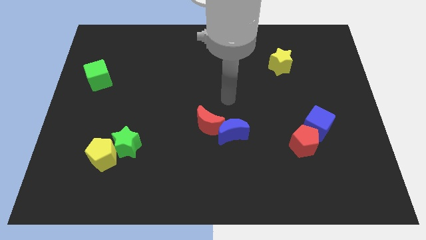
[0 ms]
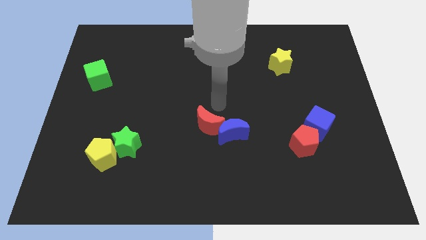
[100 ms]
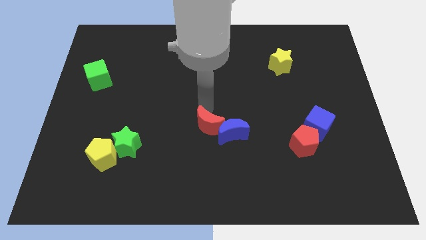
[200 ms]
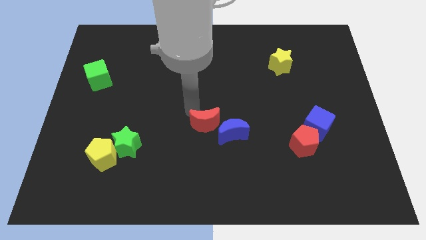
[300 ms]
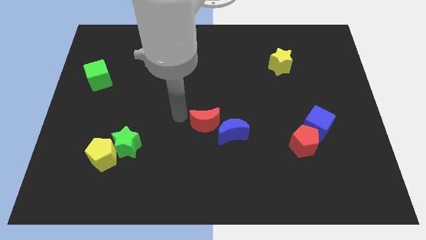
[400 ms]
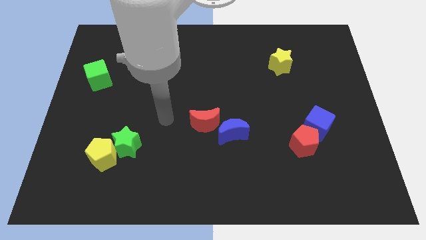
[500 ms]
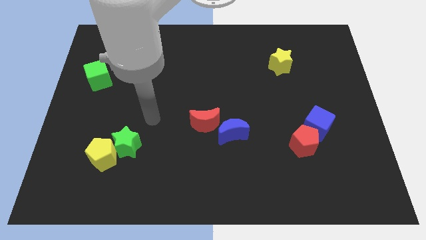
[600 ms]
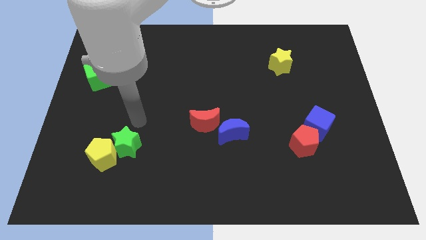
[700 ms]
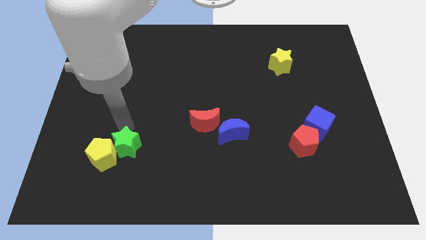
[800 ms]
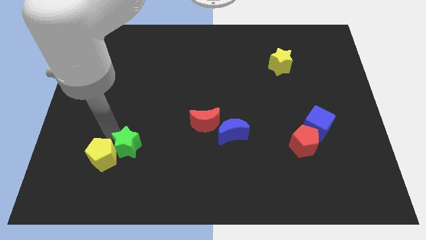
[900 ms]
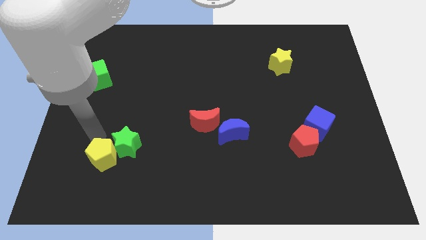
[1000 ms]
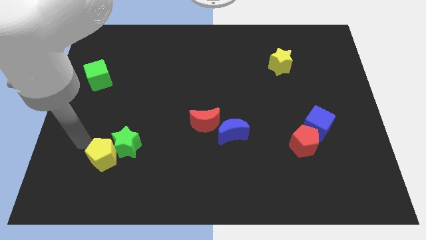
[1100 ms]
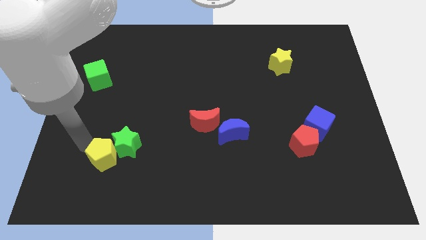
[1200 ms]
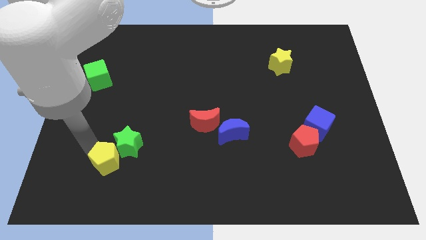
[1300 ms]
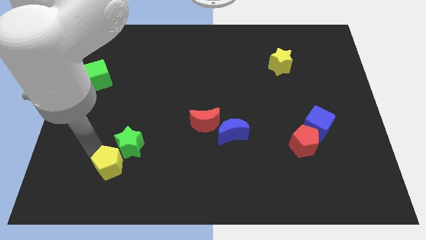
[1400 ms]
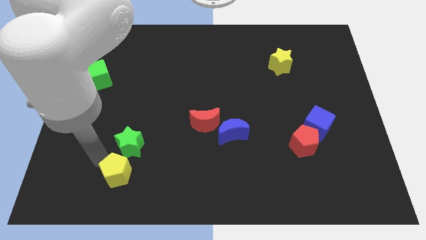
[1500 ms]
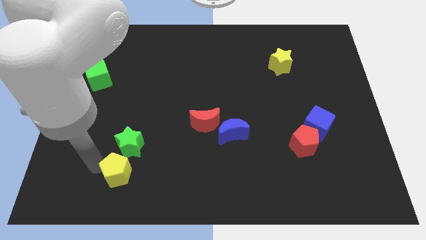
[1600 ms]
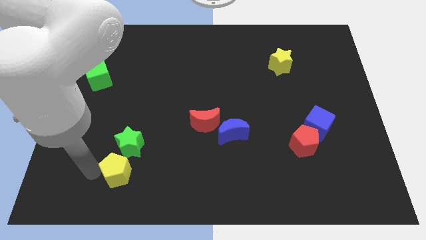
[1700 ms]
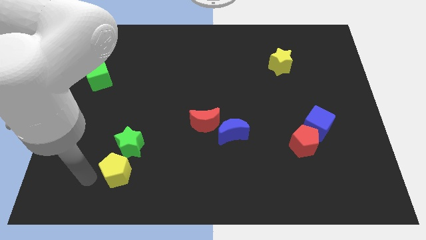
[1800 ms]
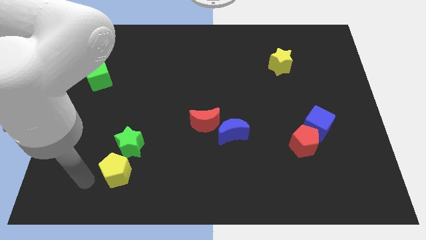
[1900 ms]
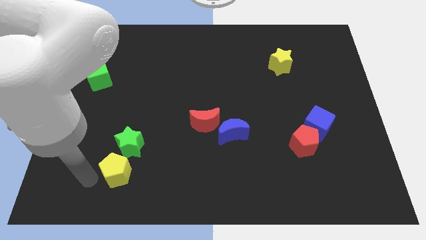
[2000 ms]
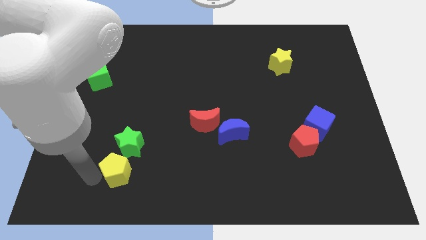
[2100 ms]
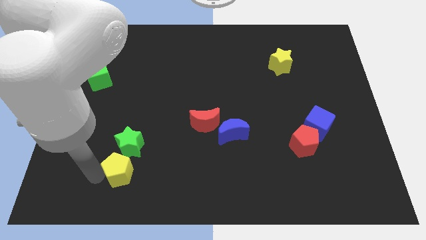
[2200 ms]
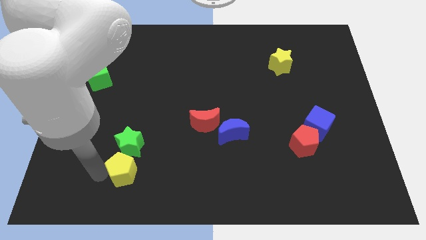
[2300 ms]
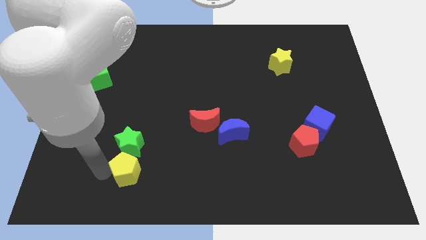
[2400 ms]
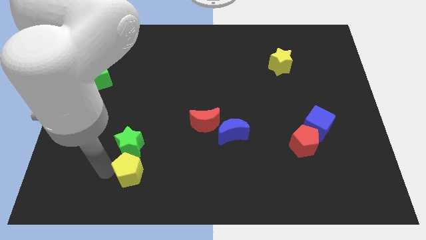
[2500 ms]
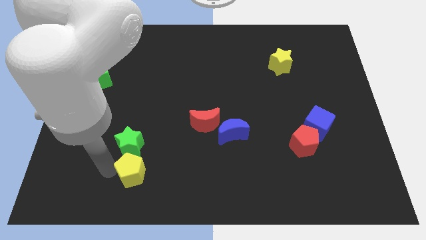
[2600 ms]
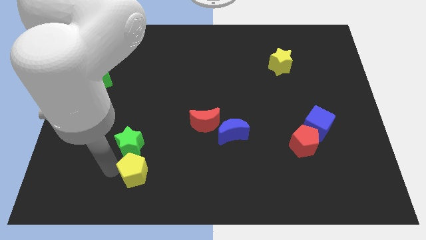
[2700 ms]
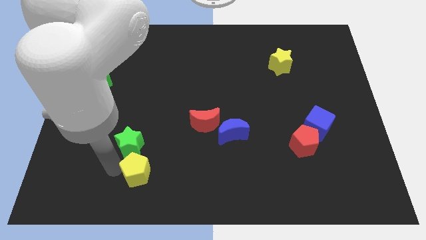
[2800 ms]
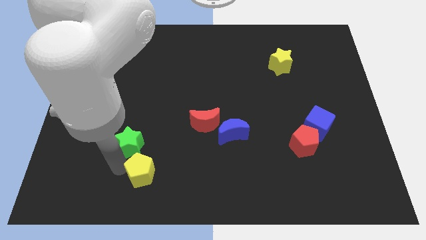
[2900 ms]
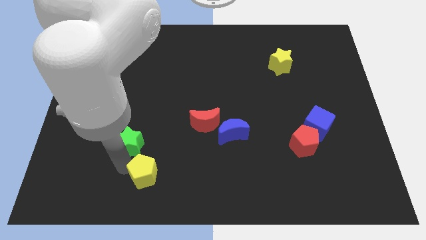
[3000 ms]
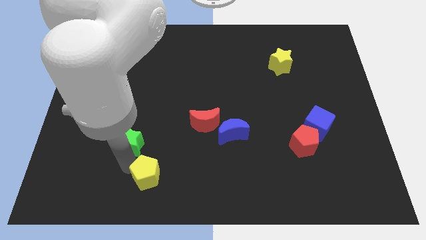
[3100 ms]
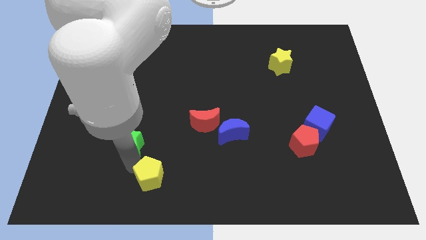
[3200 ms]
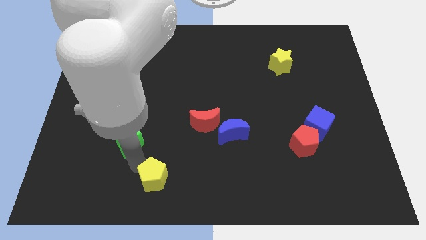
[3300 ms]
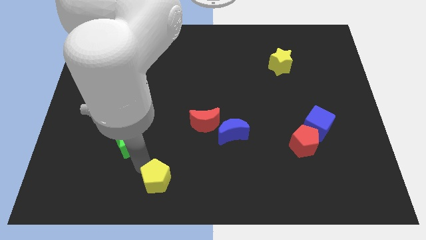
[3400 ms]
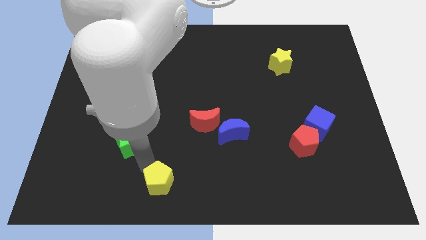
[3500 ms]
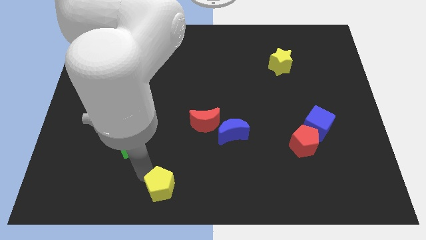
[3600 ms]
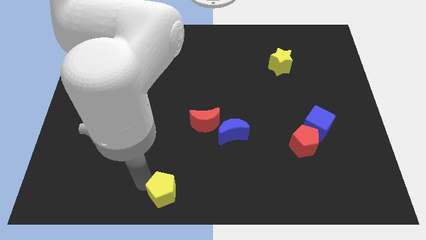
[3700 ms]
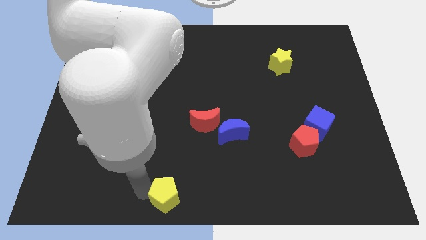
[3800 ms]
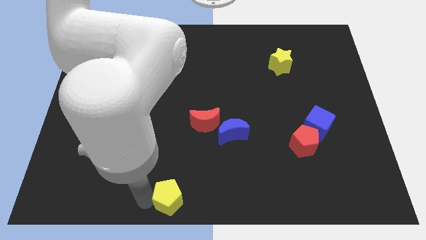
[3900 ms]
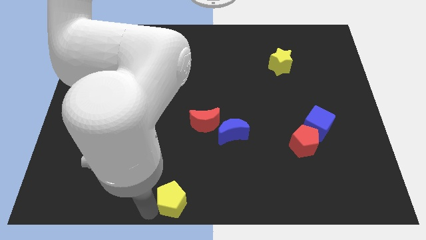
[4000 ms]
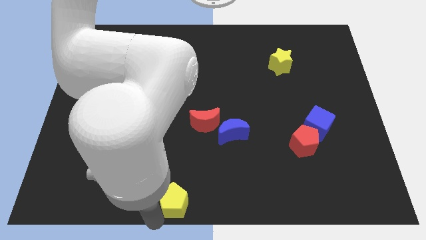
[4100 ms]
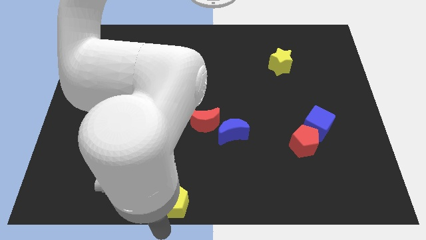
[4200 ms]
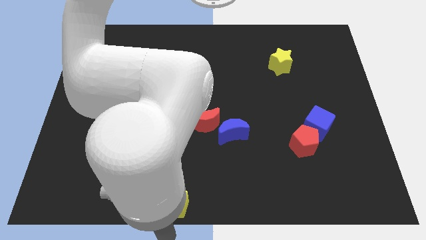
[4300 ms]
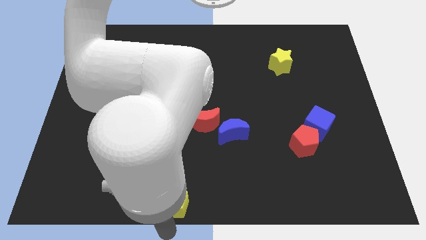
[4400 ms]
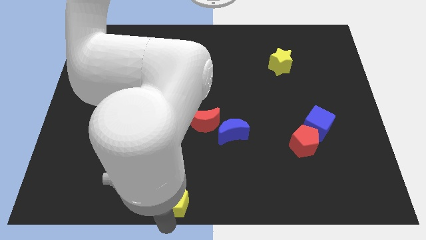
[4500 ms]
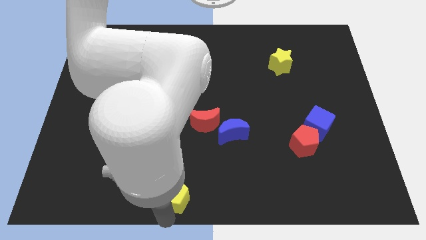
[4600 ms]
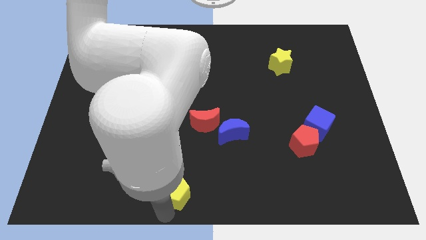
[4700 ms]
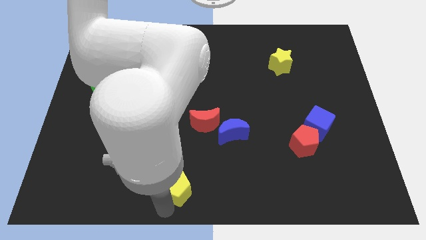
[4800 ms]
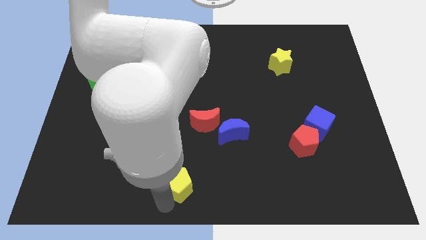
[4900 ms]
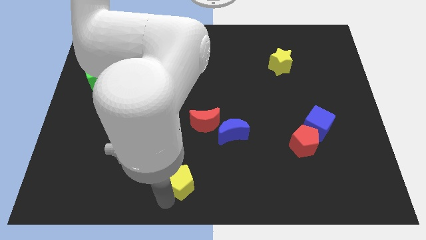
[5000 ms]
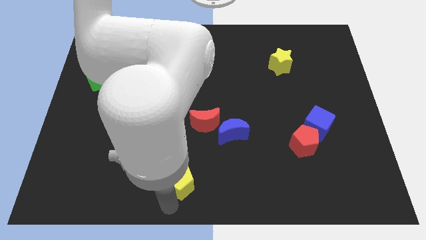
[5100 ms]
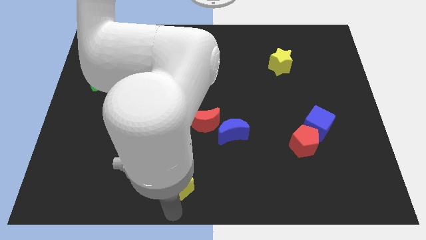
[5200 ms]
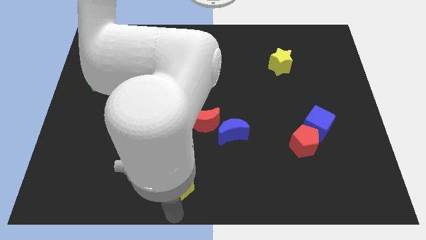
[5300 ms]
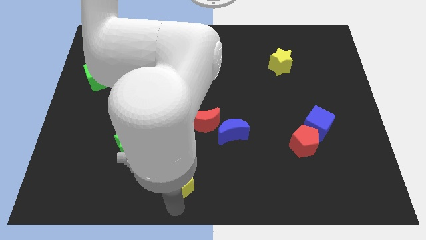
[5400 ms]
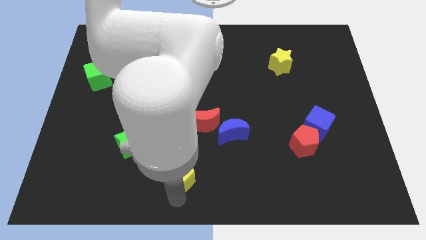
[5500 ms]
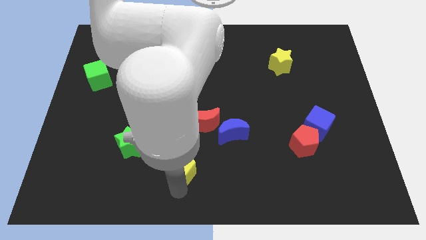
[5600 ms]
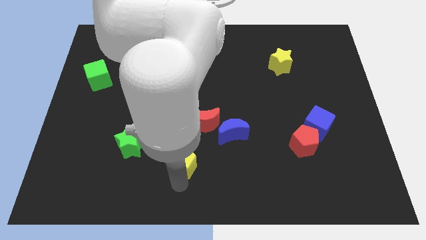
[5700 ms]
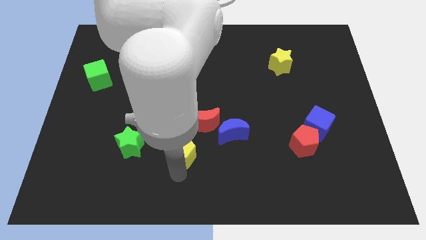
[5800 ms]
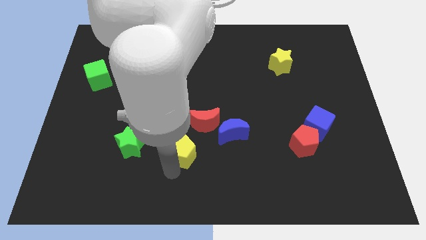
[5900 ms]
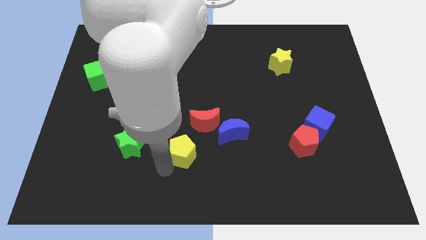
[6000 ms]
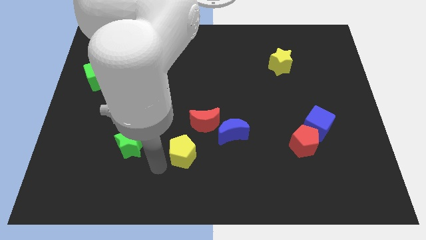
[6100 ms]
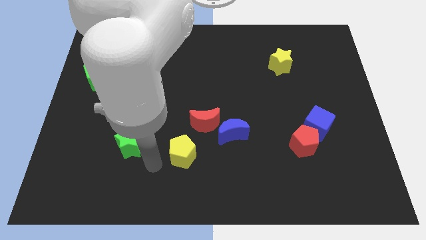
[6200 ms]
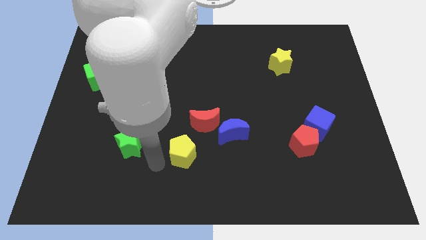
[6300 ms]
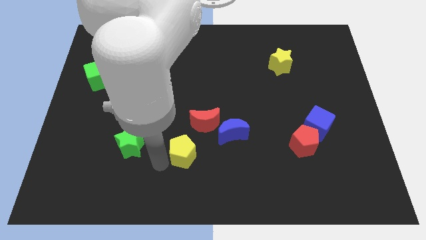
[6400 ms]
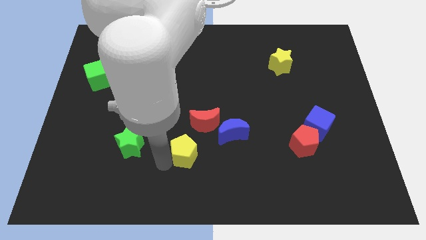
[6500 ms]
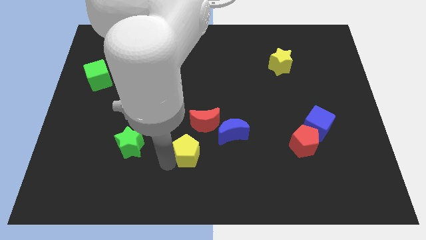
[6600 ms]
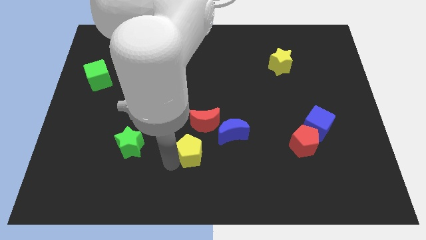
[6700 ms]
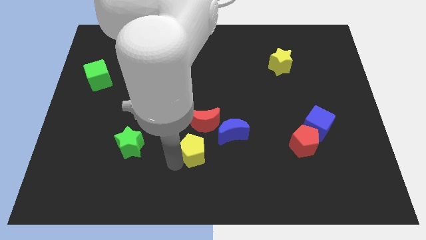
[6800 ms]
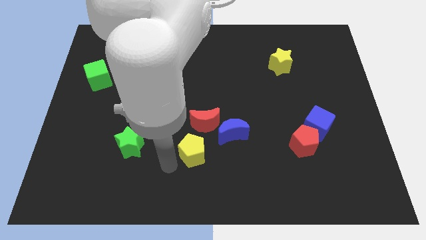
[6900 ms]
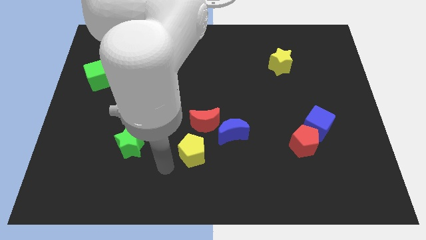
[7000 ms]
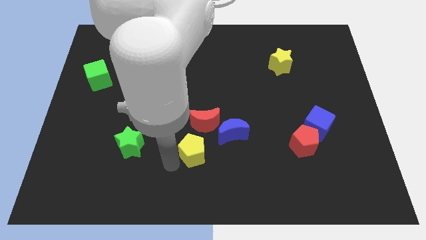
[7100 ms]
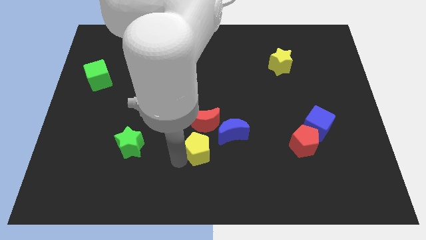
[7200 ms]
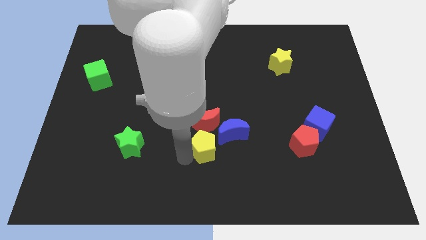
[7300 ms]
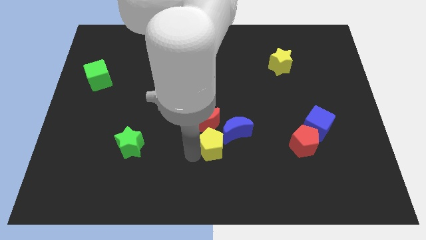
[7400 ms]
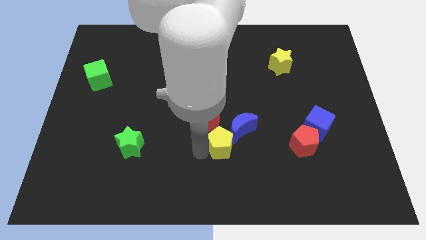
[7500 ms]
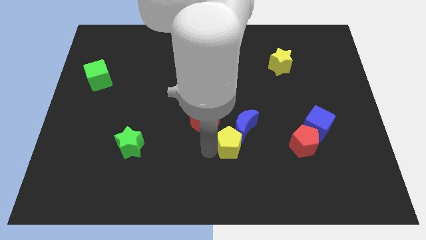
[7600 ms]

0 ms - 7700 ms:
push the yellow pentagon next to the blue moon
